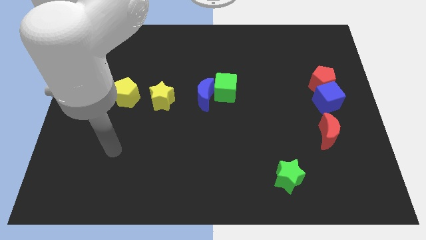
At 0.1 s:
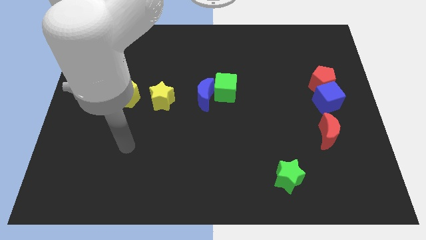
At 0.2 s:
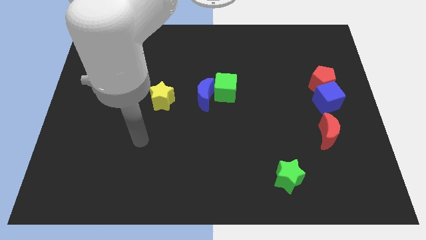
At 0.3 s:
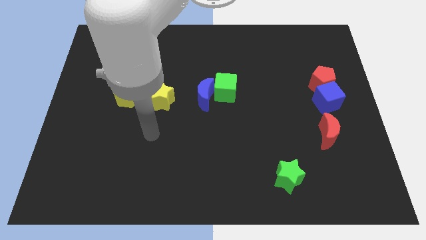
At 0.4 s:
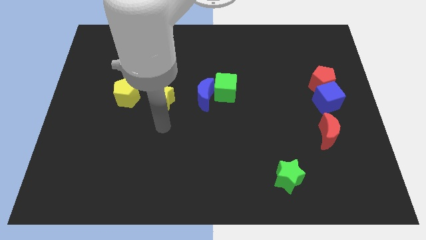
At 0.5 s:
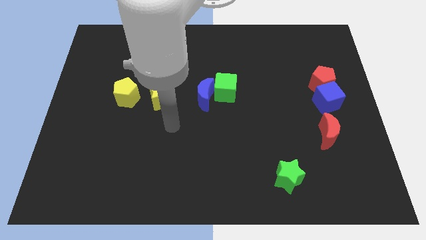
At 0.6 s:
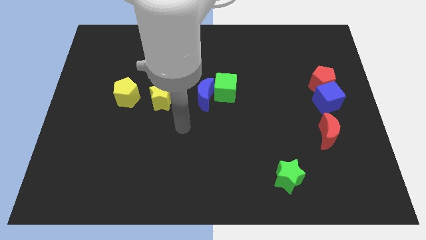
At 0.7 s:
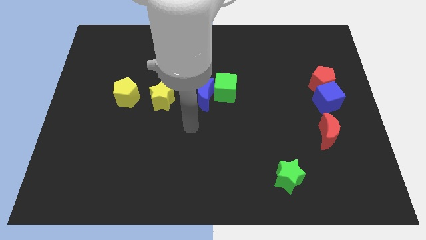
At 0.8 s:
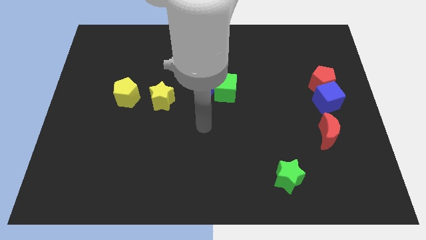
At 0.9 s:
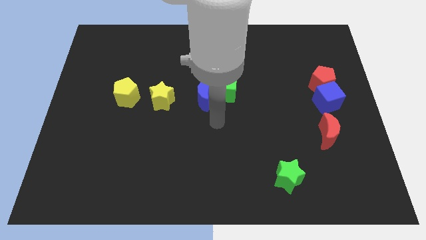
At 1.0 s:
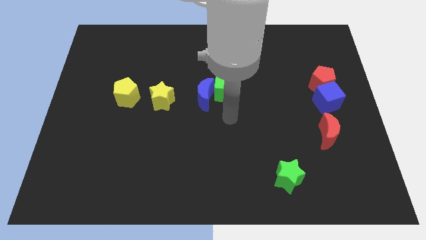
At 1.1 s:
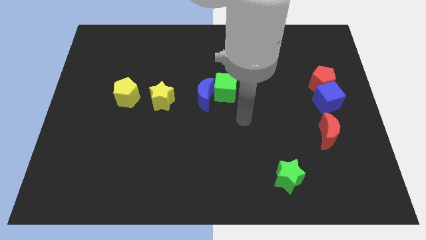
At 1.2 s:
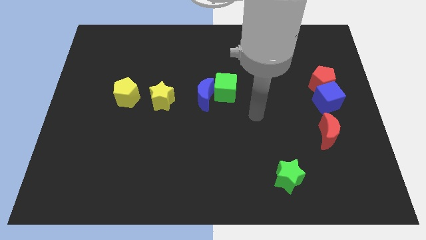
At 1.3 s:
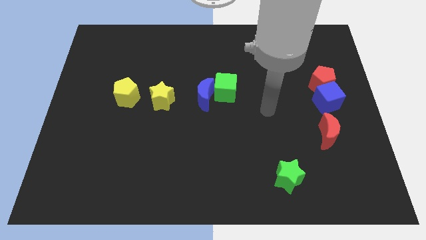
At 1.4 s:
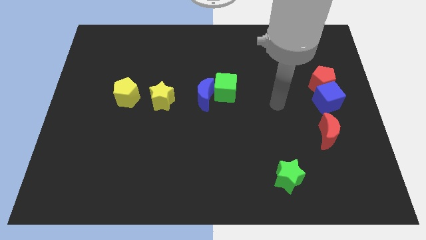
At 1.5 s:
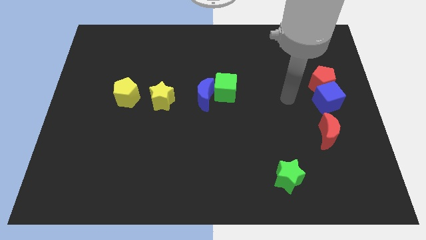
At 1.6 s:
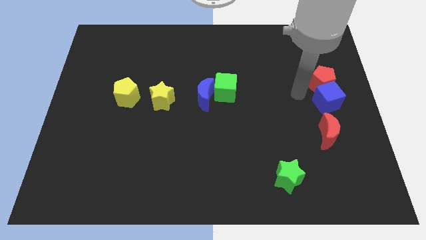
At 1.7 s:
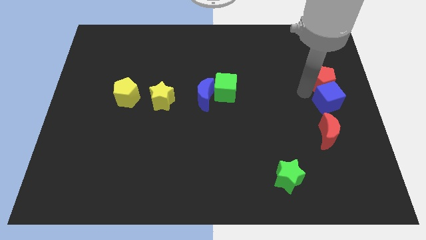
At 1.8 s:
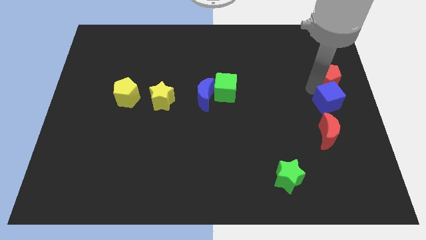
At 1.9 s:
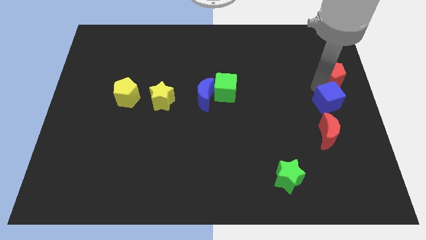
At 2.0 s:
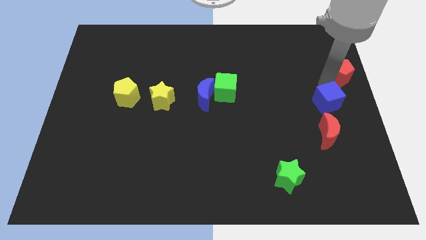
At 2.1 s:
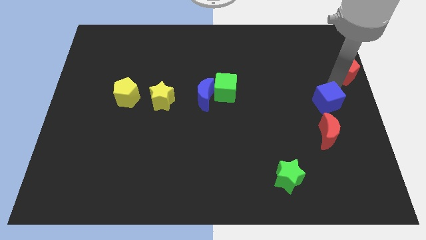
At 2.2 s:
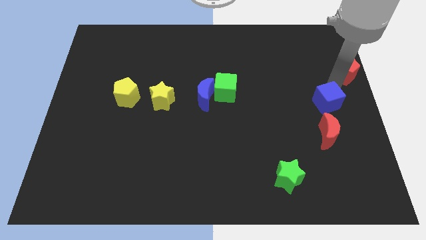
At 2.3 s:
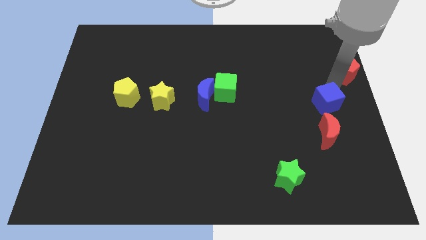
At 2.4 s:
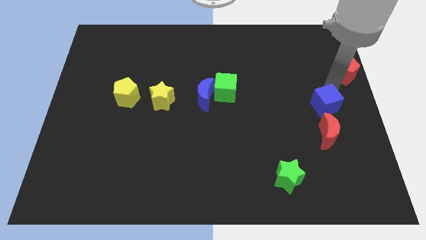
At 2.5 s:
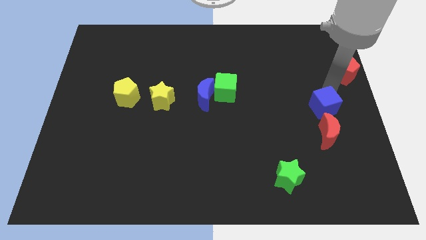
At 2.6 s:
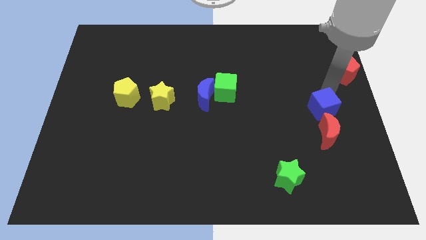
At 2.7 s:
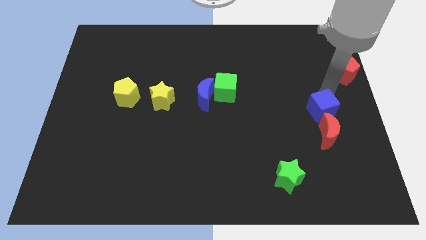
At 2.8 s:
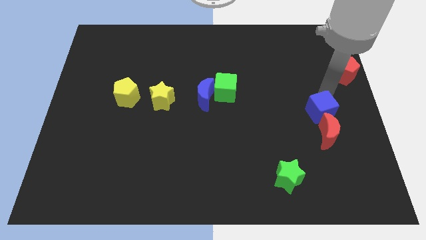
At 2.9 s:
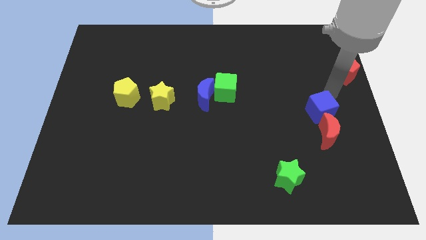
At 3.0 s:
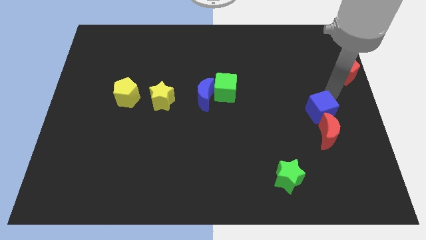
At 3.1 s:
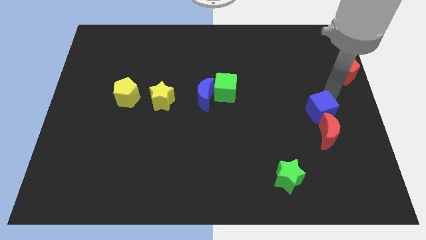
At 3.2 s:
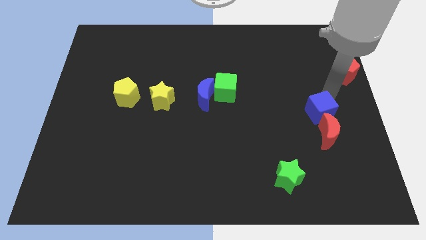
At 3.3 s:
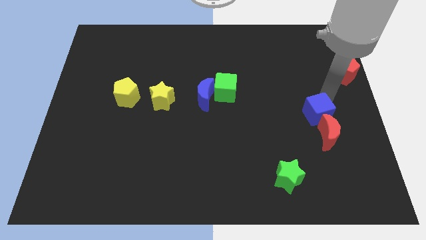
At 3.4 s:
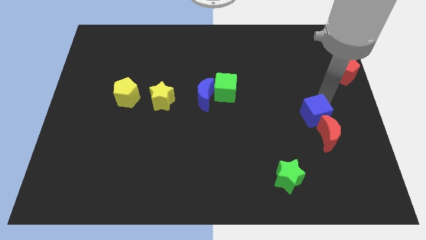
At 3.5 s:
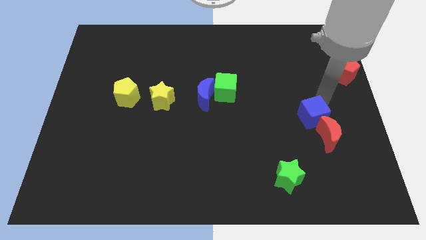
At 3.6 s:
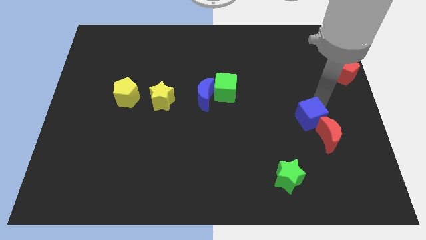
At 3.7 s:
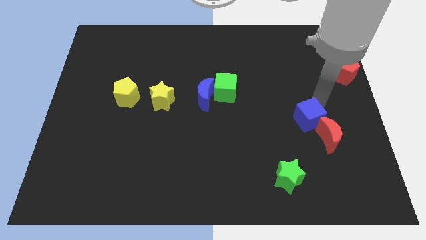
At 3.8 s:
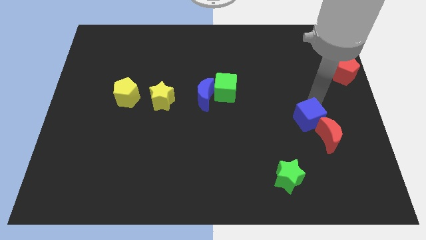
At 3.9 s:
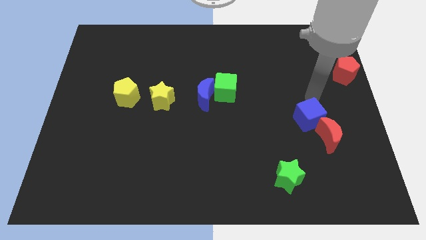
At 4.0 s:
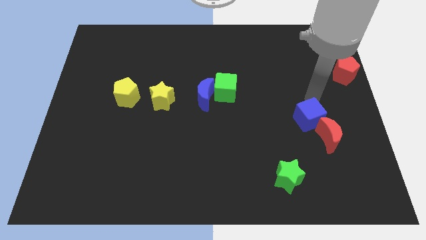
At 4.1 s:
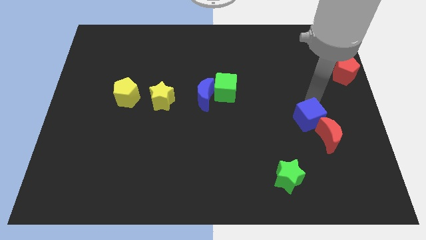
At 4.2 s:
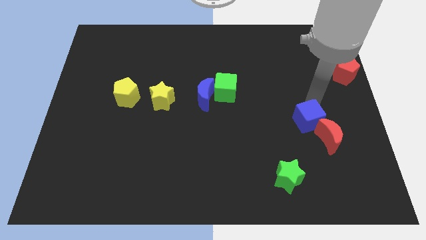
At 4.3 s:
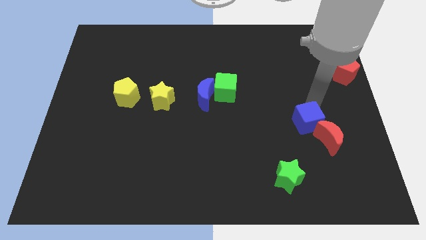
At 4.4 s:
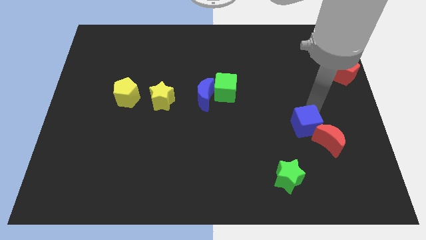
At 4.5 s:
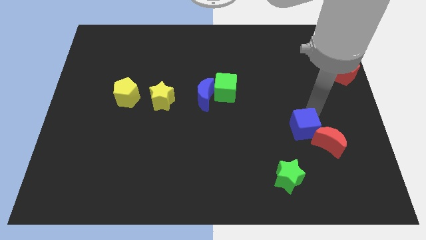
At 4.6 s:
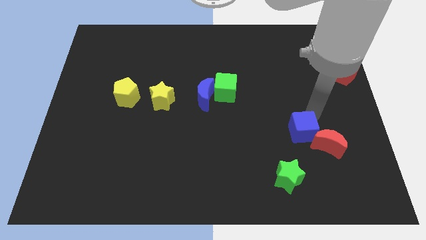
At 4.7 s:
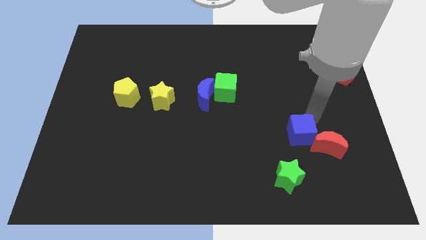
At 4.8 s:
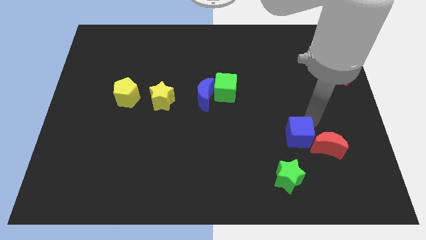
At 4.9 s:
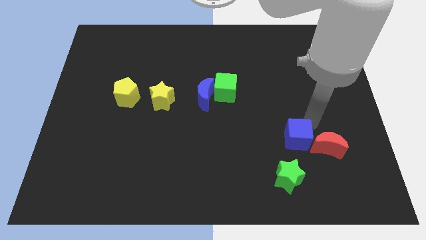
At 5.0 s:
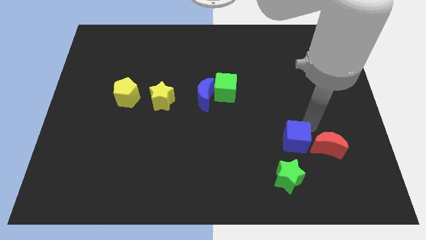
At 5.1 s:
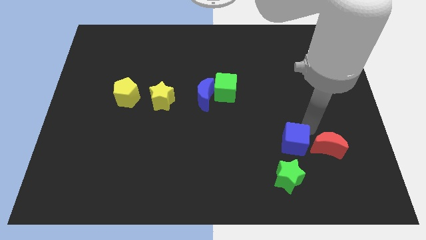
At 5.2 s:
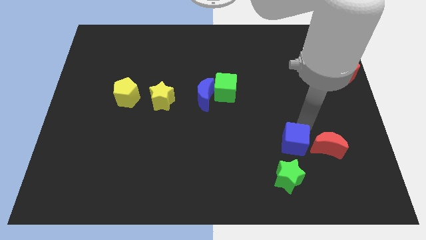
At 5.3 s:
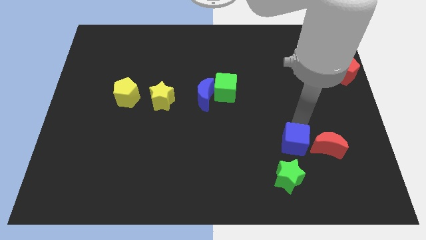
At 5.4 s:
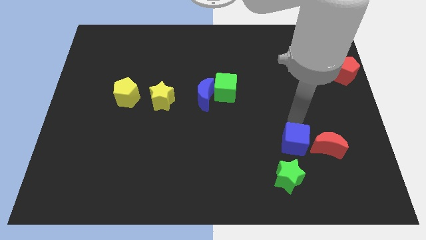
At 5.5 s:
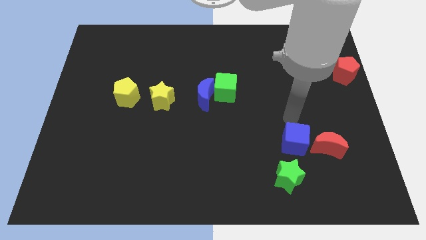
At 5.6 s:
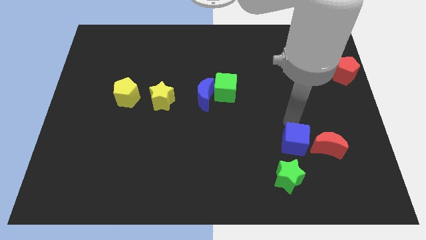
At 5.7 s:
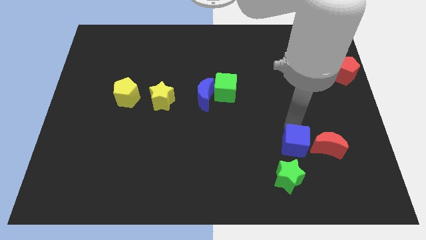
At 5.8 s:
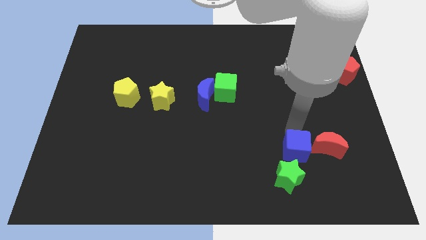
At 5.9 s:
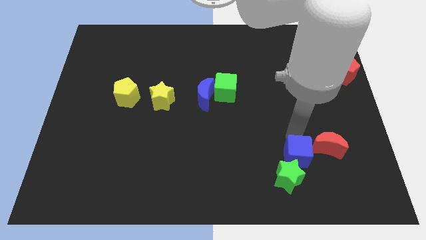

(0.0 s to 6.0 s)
push the blue cube close to the green star

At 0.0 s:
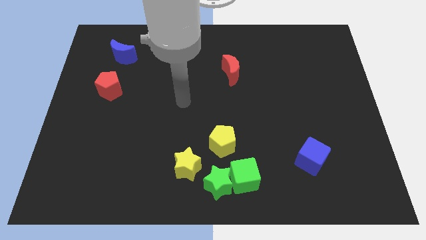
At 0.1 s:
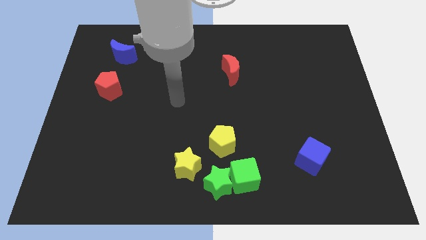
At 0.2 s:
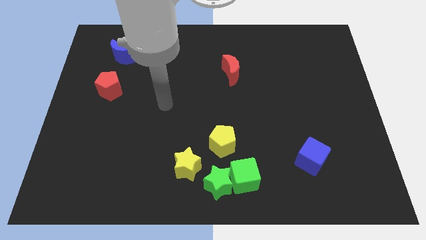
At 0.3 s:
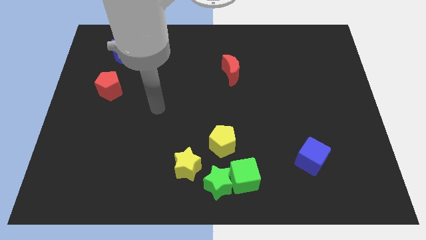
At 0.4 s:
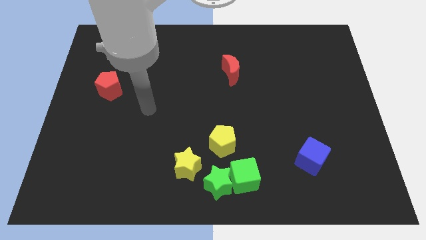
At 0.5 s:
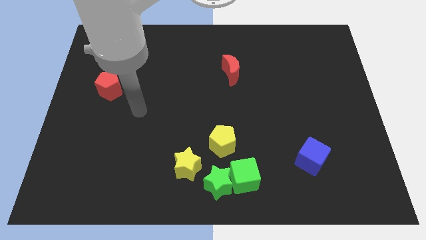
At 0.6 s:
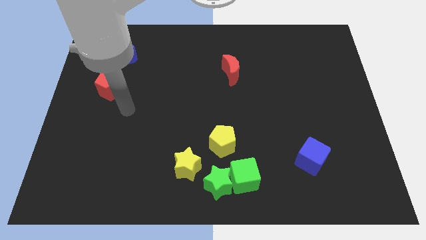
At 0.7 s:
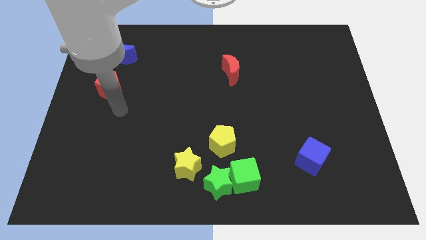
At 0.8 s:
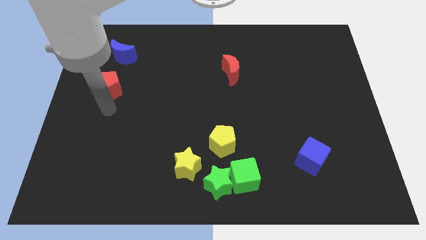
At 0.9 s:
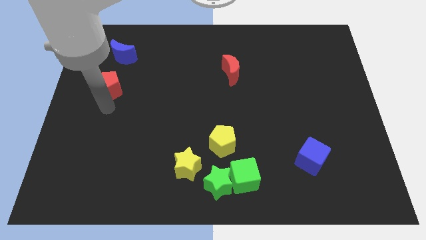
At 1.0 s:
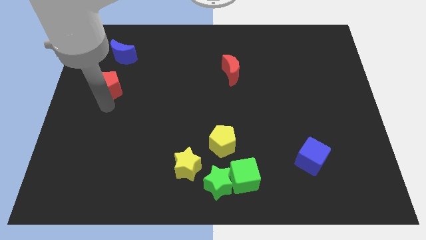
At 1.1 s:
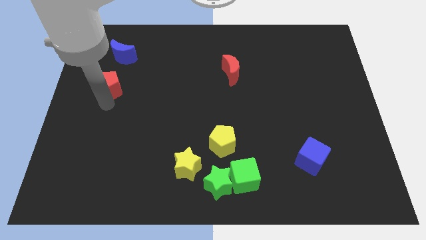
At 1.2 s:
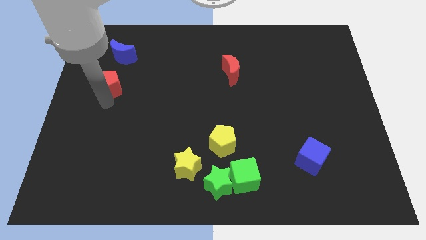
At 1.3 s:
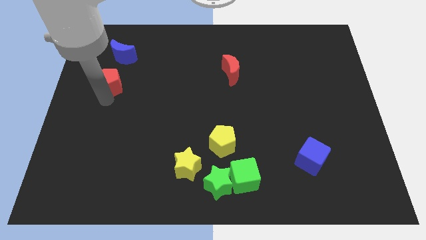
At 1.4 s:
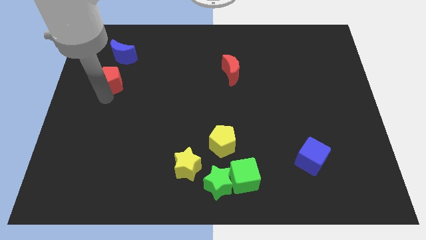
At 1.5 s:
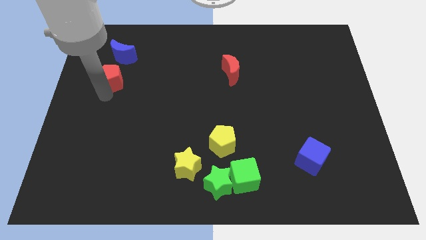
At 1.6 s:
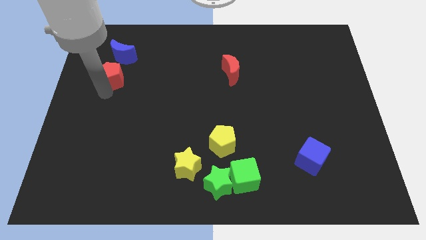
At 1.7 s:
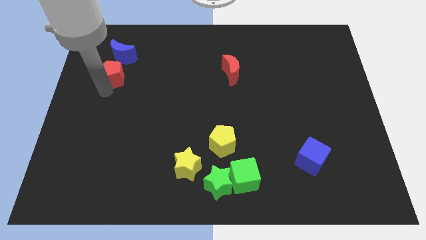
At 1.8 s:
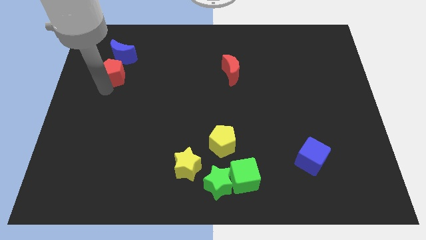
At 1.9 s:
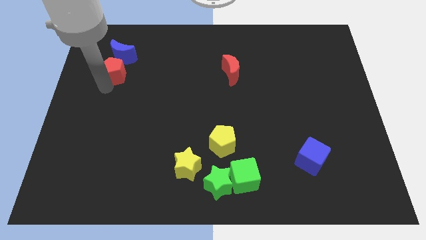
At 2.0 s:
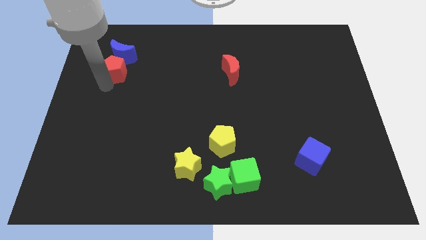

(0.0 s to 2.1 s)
move the red pentagon to the blue moon

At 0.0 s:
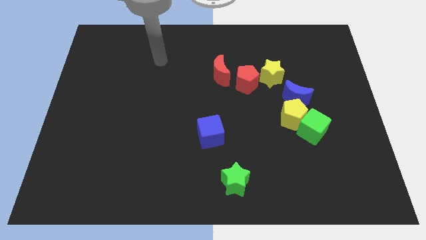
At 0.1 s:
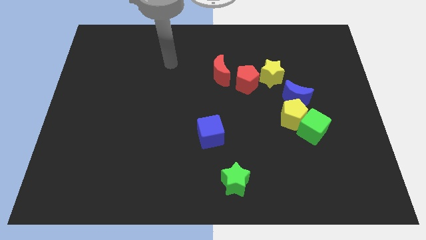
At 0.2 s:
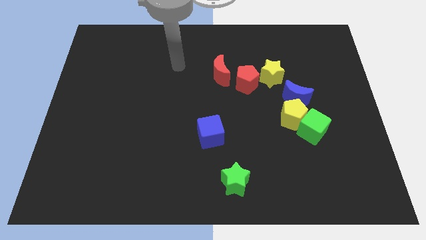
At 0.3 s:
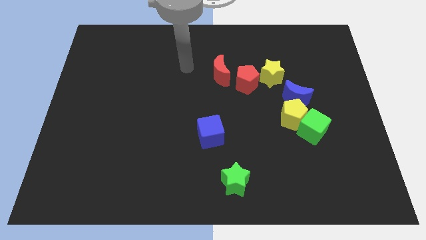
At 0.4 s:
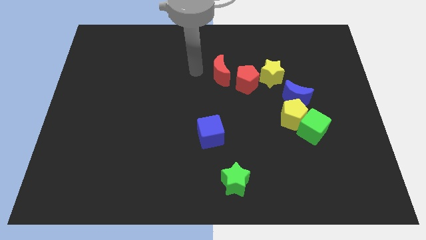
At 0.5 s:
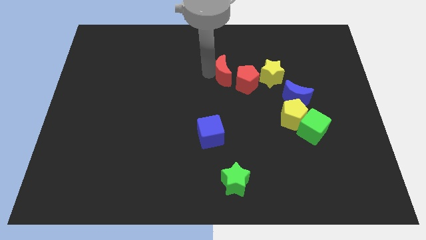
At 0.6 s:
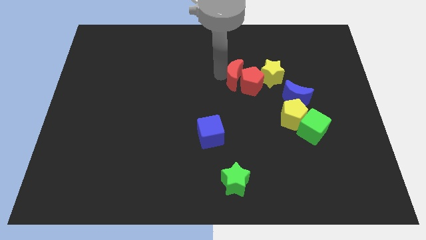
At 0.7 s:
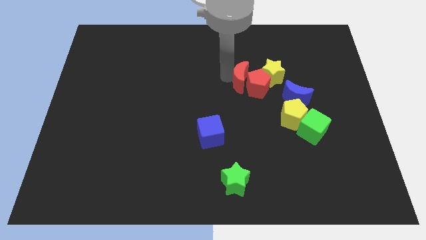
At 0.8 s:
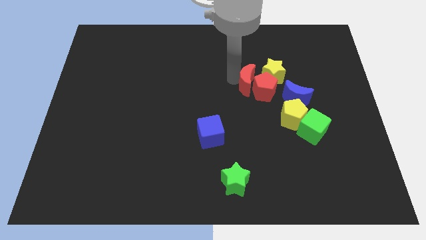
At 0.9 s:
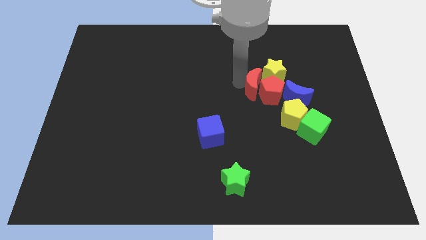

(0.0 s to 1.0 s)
move the red pentagon towards the blue moon
